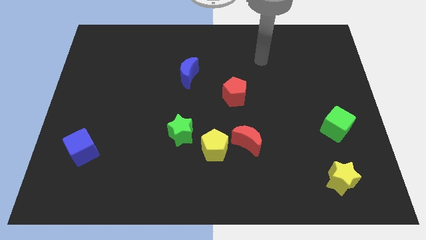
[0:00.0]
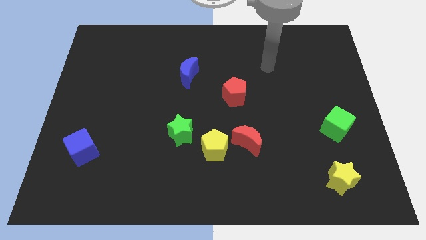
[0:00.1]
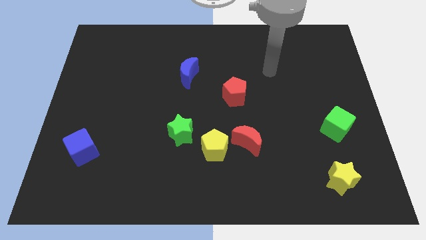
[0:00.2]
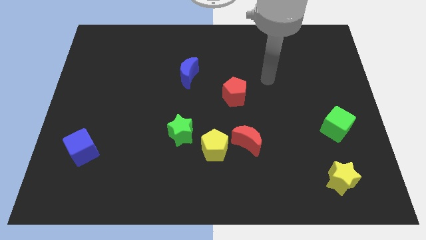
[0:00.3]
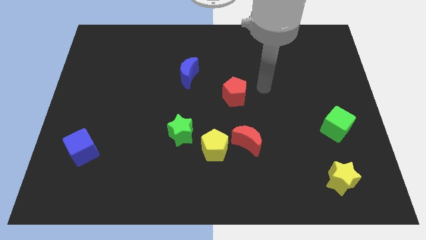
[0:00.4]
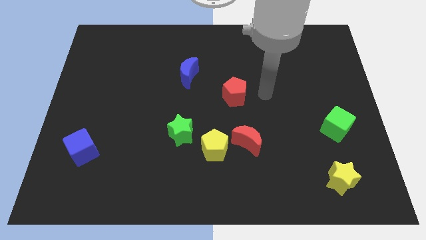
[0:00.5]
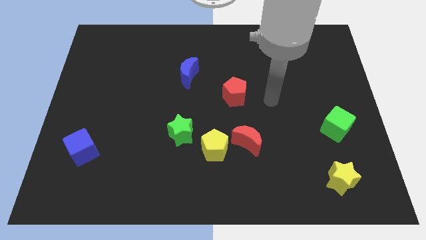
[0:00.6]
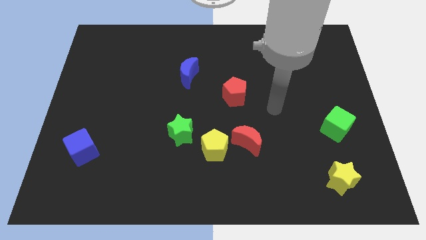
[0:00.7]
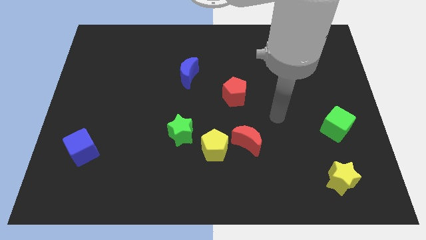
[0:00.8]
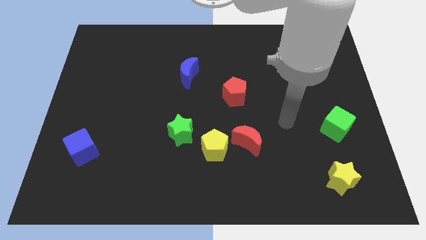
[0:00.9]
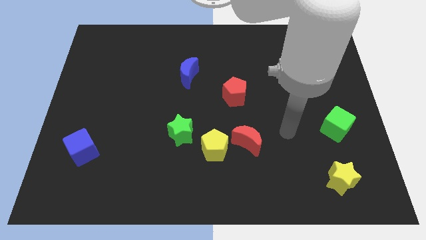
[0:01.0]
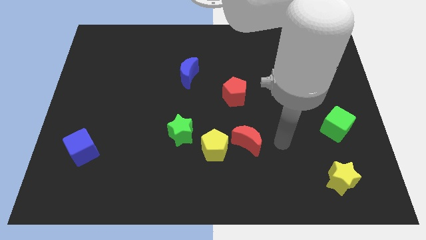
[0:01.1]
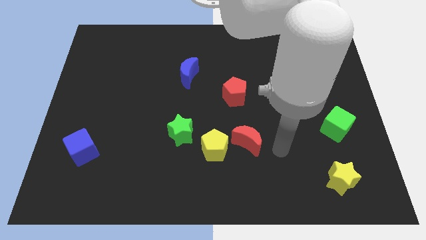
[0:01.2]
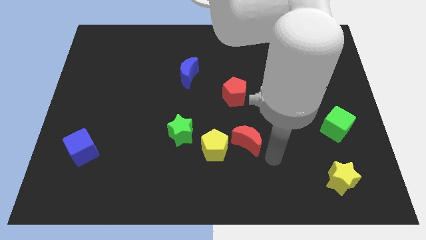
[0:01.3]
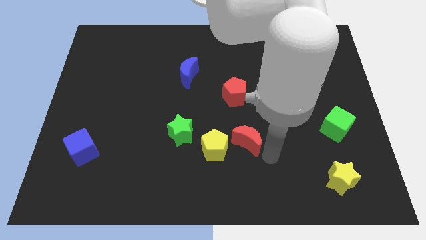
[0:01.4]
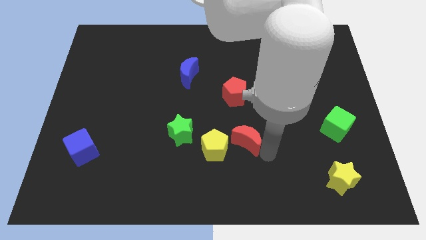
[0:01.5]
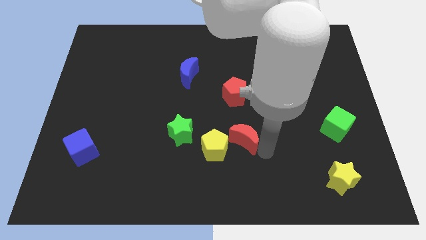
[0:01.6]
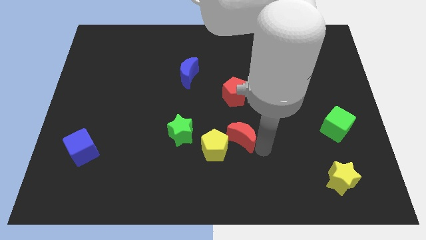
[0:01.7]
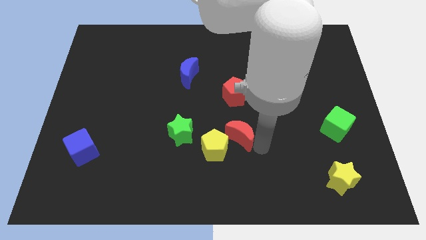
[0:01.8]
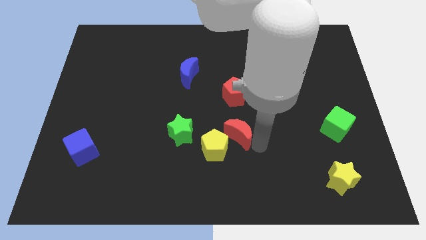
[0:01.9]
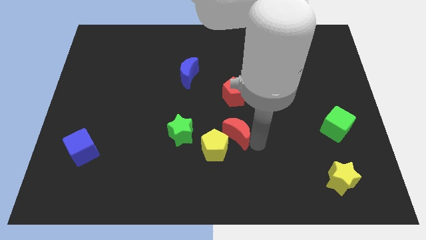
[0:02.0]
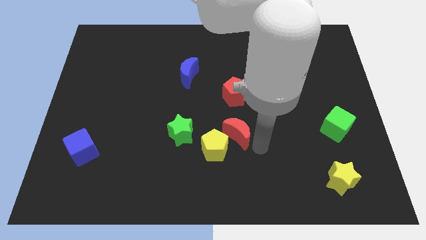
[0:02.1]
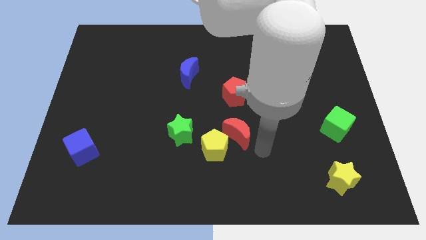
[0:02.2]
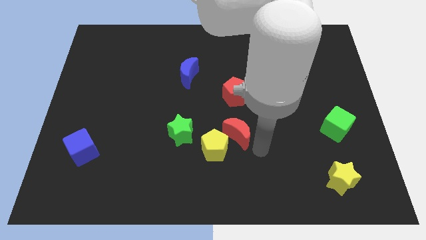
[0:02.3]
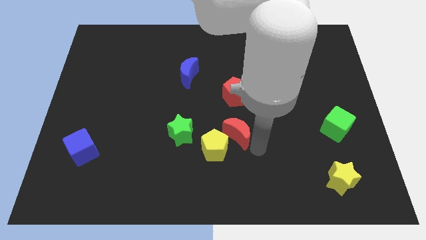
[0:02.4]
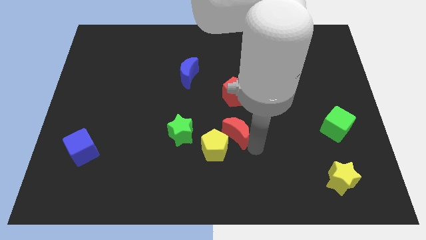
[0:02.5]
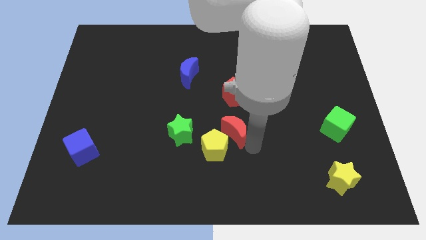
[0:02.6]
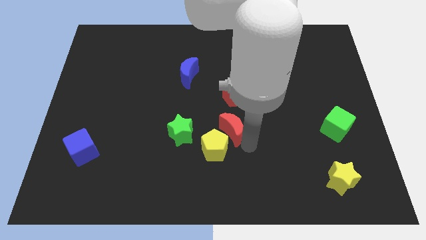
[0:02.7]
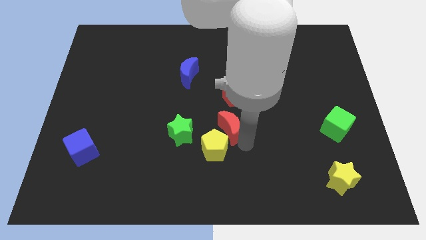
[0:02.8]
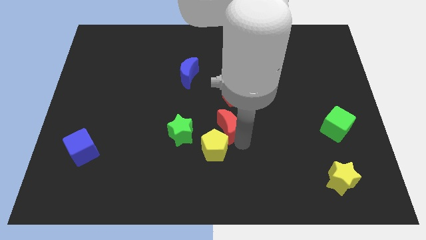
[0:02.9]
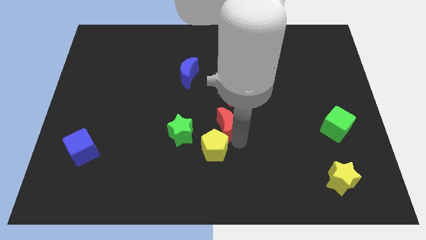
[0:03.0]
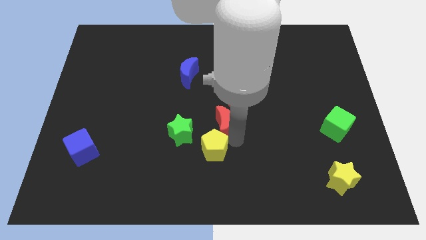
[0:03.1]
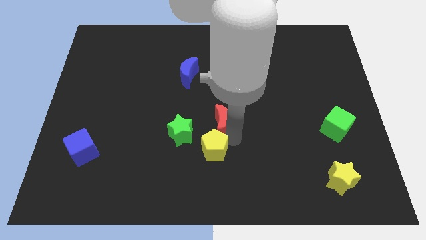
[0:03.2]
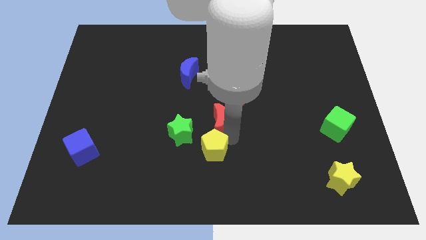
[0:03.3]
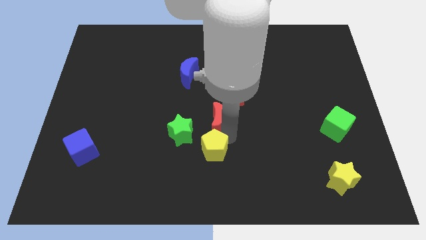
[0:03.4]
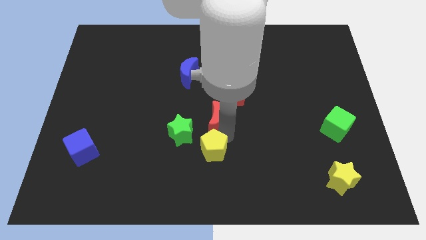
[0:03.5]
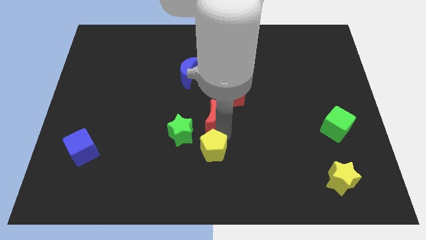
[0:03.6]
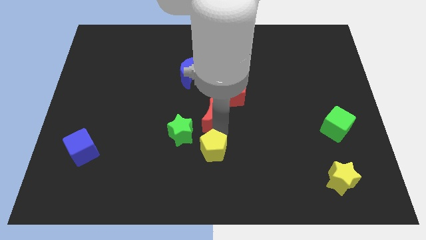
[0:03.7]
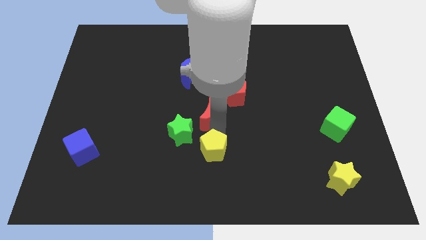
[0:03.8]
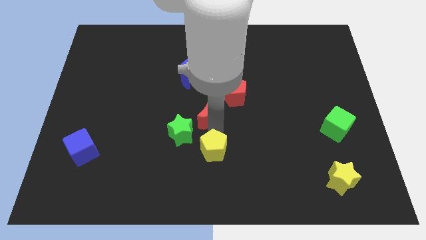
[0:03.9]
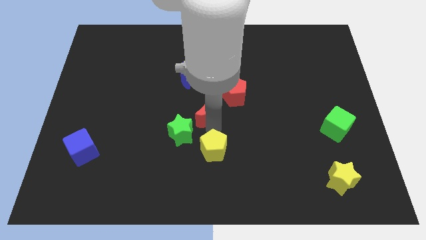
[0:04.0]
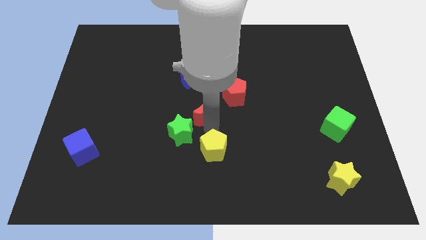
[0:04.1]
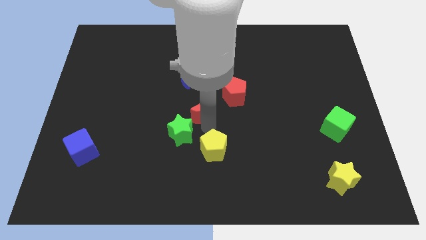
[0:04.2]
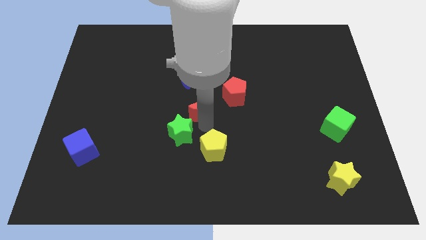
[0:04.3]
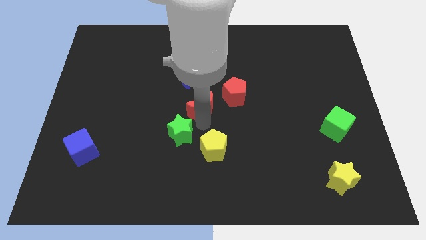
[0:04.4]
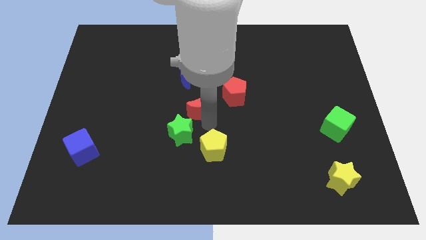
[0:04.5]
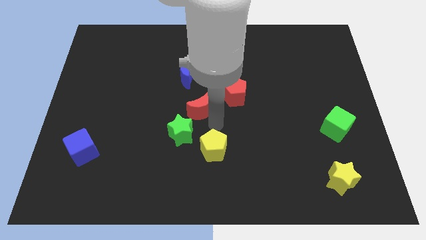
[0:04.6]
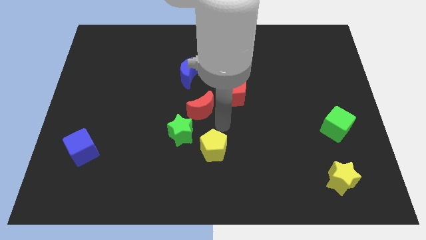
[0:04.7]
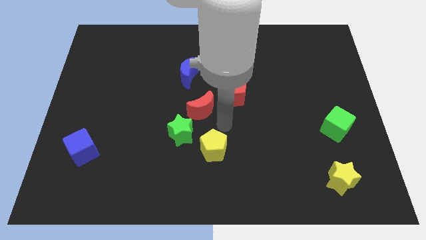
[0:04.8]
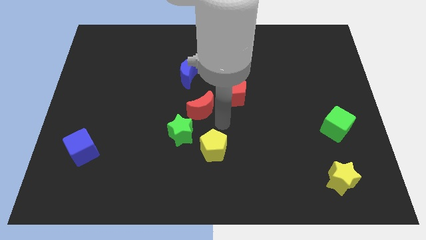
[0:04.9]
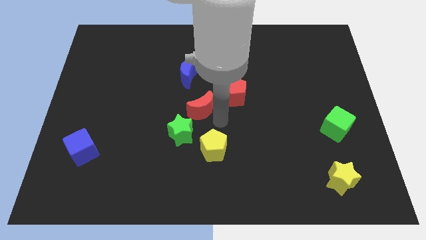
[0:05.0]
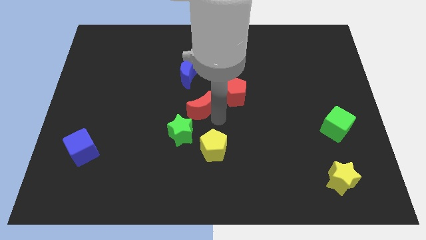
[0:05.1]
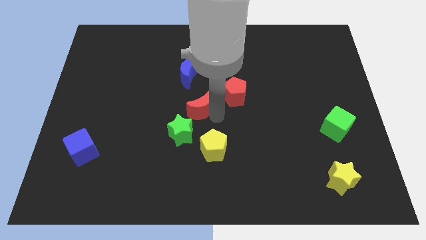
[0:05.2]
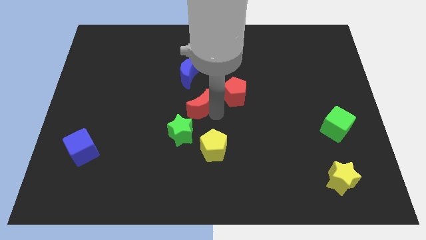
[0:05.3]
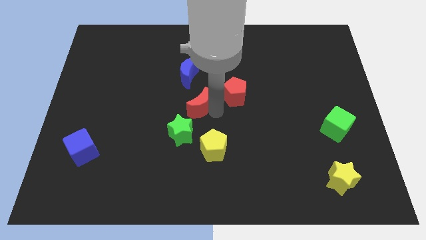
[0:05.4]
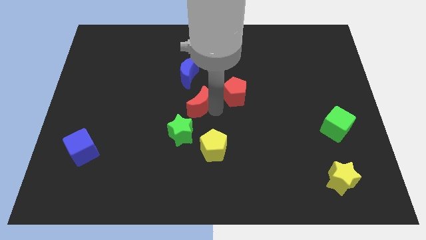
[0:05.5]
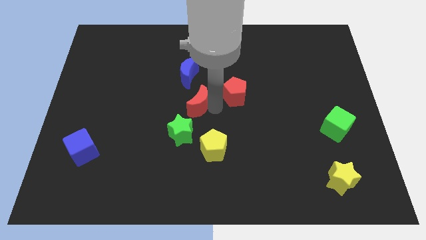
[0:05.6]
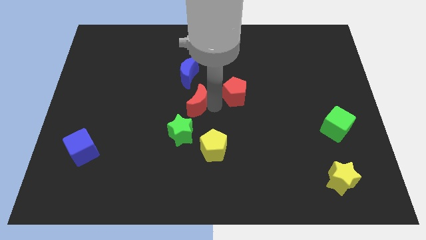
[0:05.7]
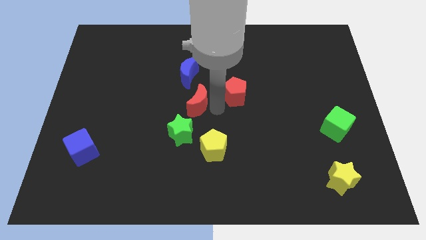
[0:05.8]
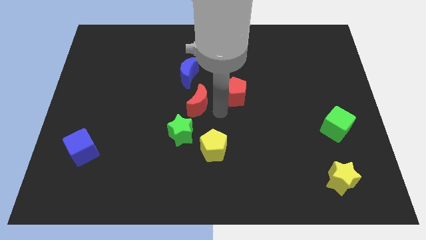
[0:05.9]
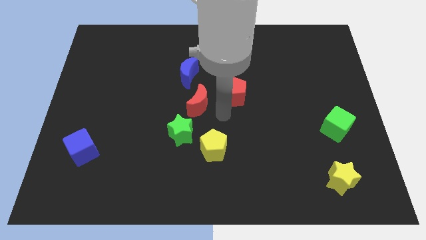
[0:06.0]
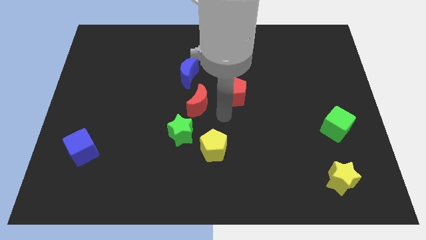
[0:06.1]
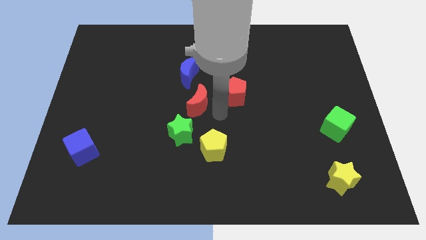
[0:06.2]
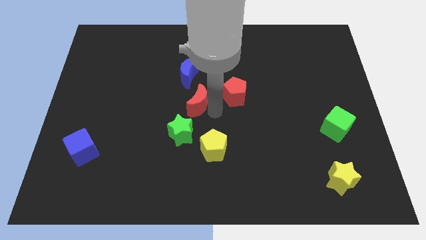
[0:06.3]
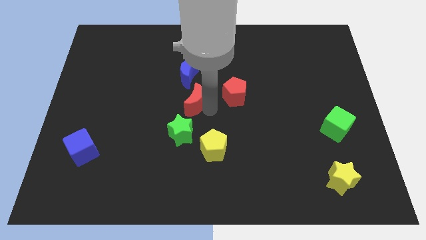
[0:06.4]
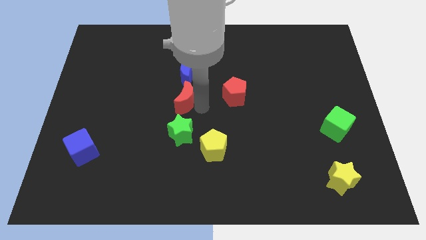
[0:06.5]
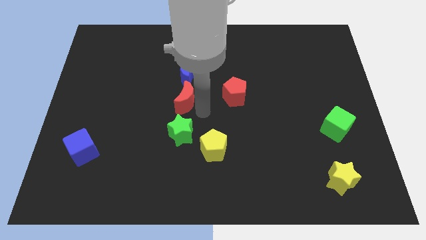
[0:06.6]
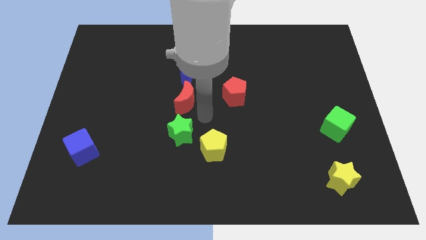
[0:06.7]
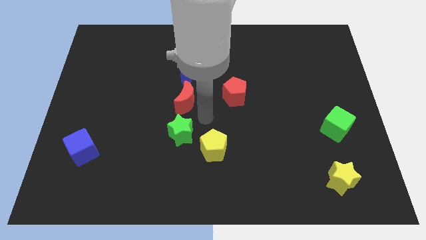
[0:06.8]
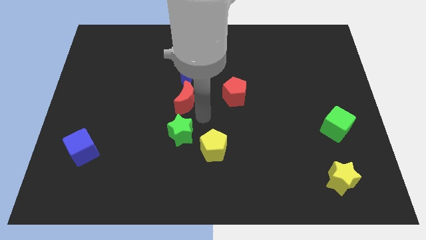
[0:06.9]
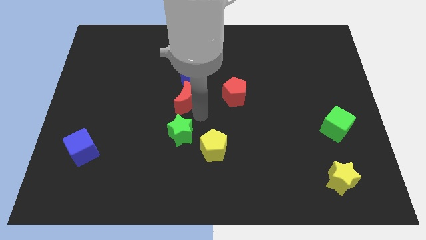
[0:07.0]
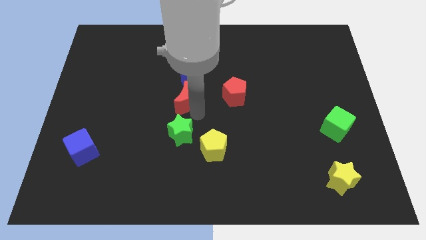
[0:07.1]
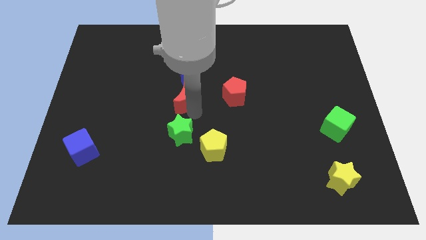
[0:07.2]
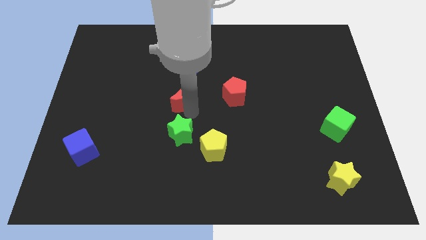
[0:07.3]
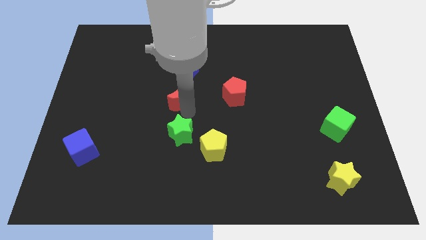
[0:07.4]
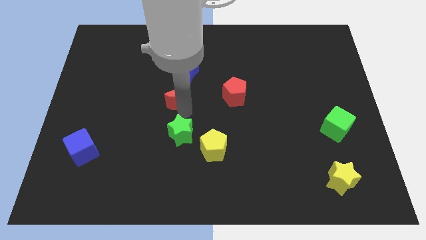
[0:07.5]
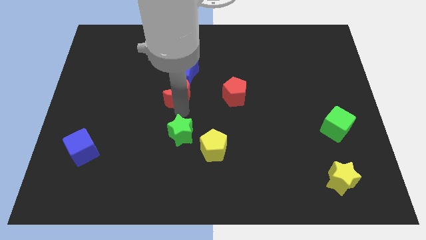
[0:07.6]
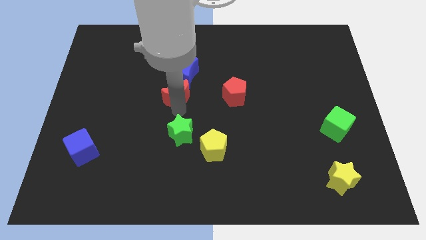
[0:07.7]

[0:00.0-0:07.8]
move the red moon upwards and left
